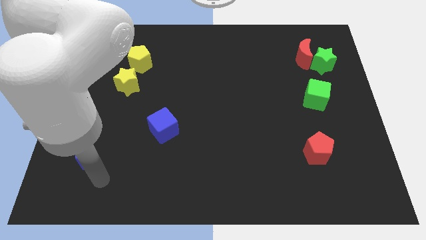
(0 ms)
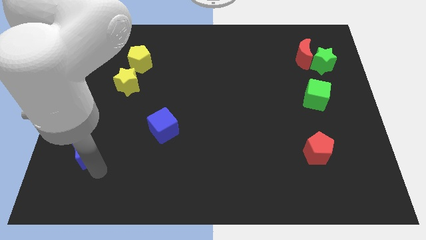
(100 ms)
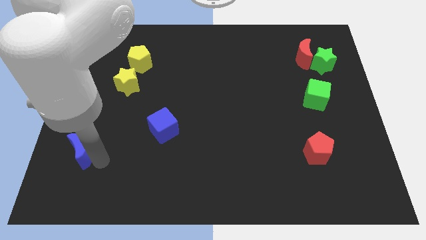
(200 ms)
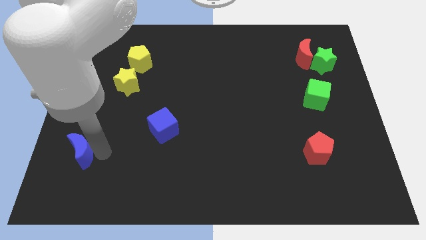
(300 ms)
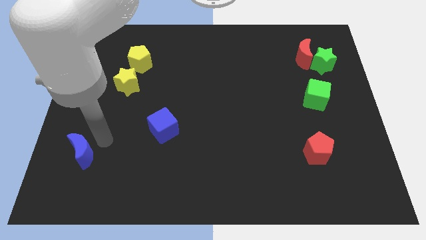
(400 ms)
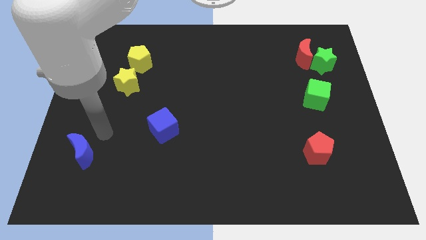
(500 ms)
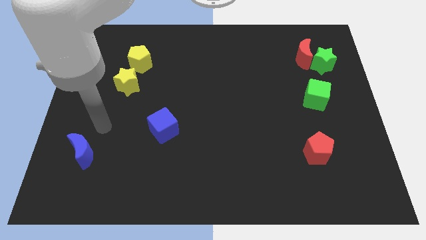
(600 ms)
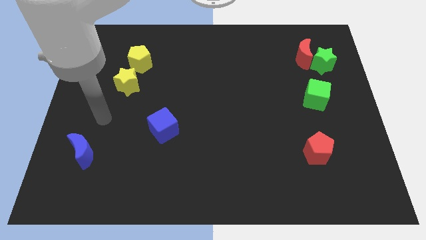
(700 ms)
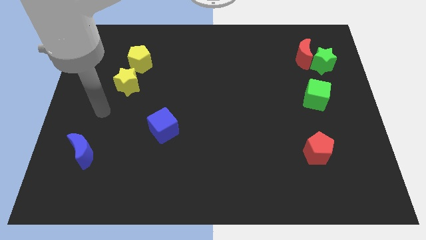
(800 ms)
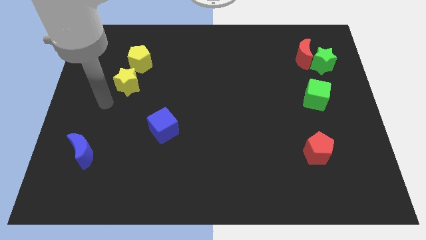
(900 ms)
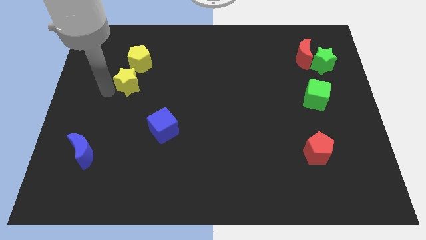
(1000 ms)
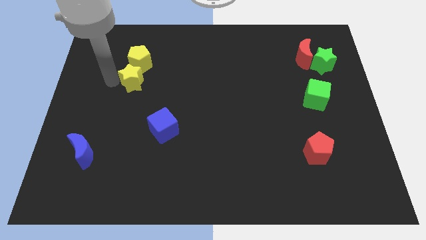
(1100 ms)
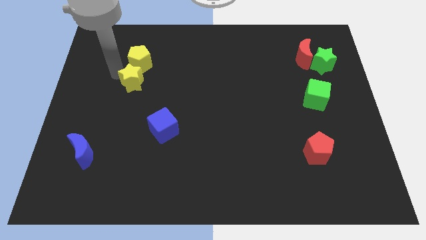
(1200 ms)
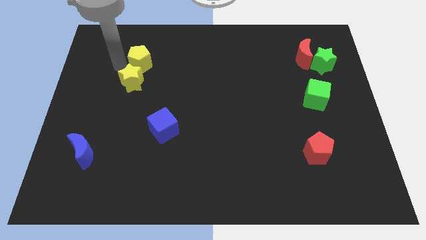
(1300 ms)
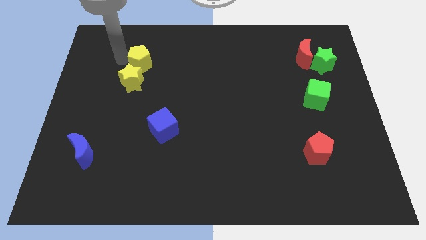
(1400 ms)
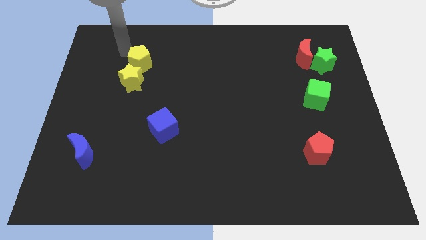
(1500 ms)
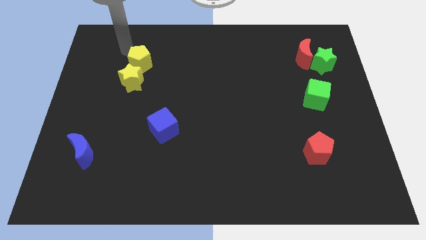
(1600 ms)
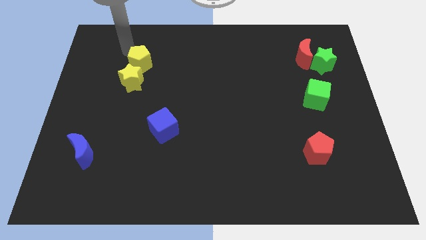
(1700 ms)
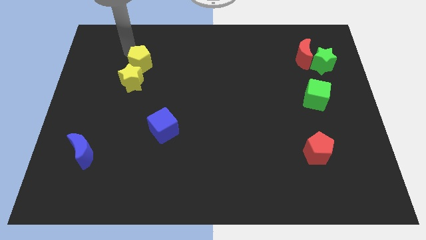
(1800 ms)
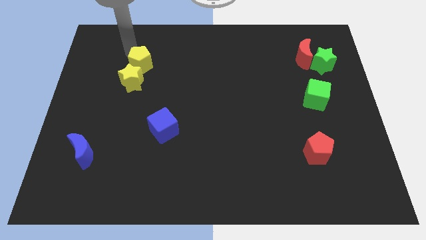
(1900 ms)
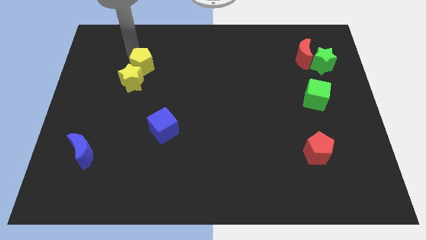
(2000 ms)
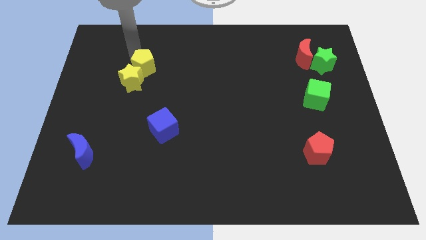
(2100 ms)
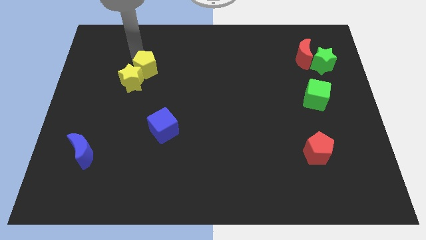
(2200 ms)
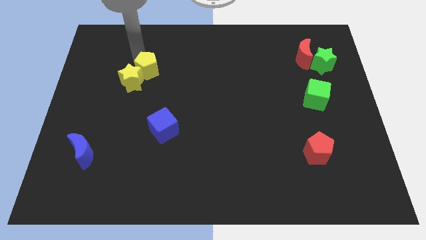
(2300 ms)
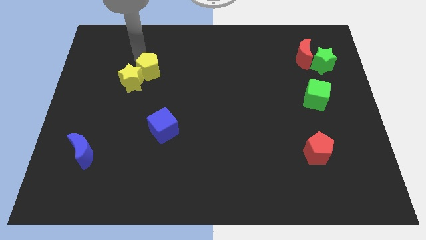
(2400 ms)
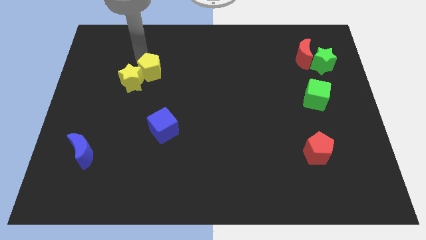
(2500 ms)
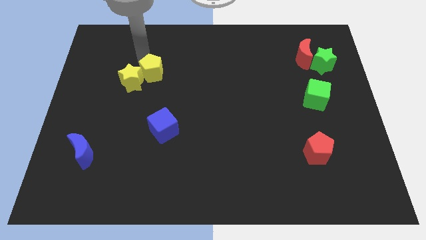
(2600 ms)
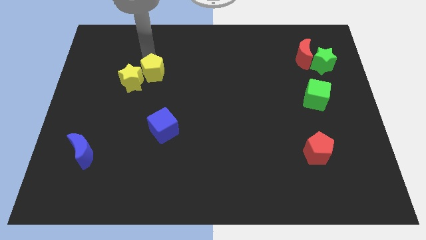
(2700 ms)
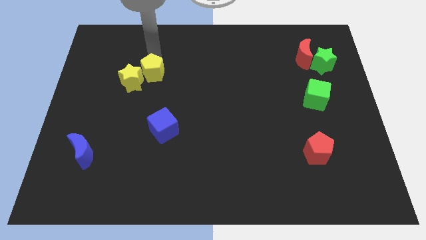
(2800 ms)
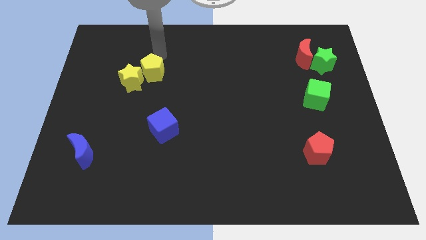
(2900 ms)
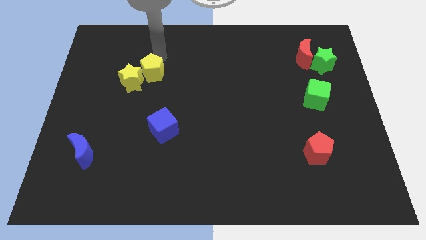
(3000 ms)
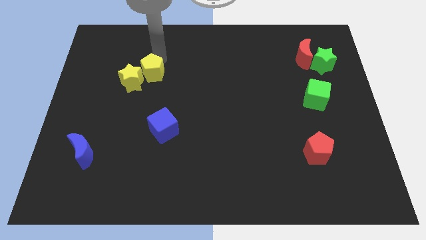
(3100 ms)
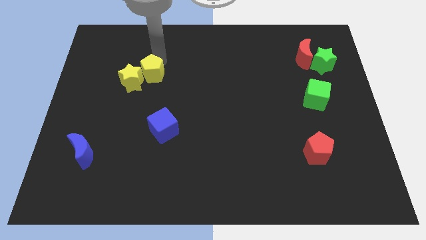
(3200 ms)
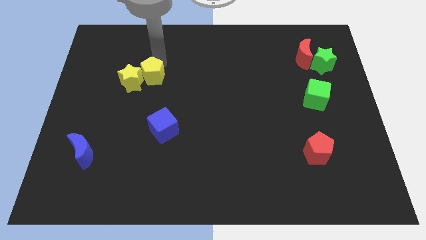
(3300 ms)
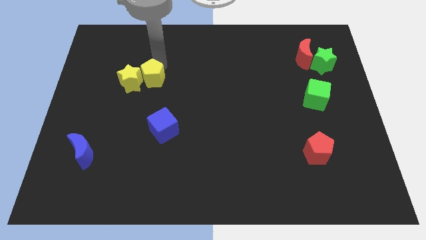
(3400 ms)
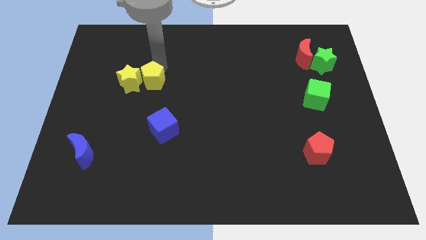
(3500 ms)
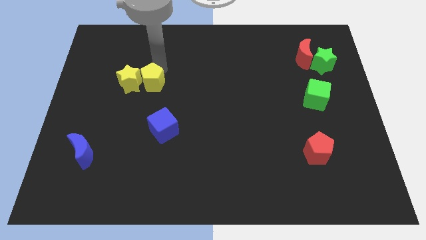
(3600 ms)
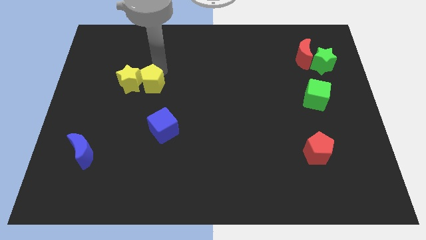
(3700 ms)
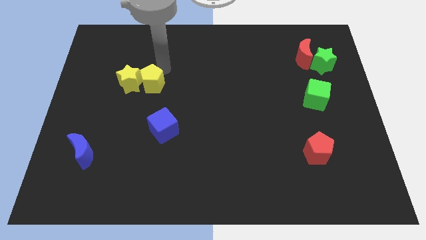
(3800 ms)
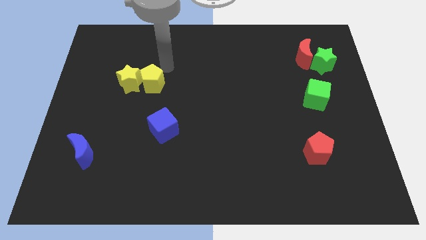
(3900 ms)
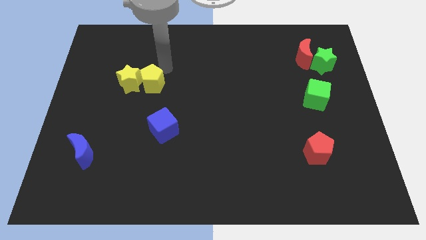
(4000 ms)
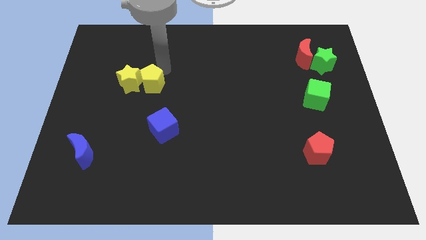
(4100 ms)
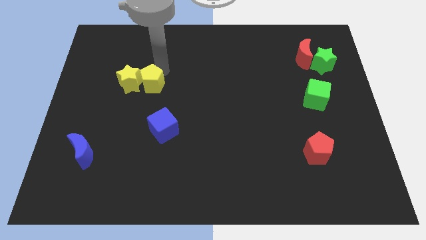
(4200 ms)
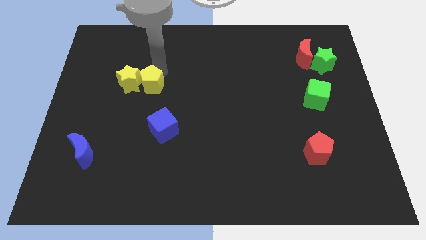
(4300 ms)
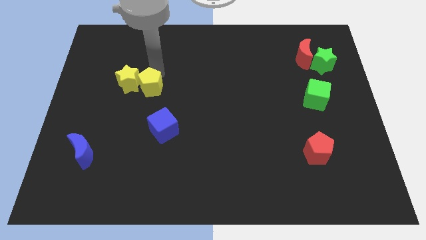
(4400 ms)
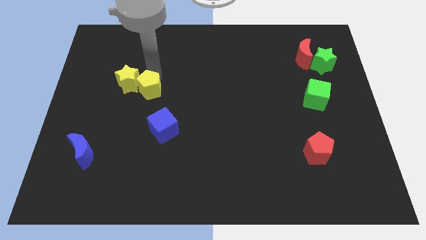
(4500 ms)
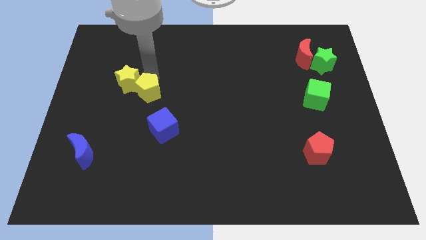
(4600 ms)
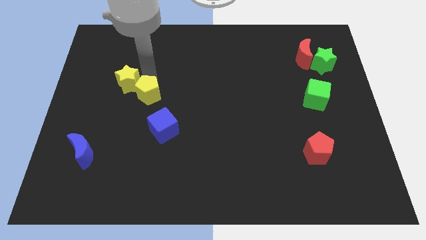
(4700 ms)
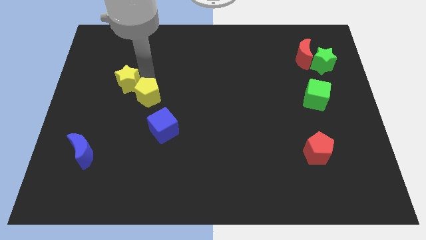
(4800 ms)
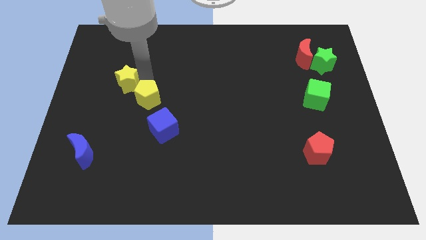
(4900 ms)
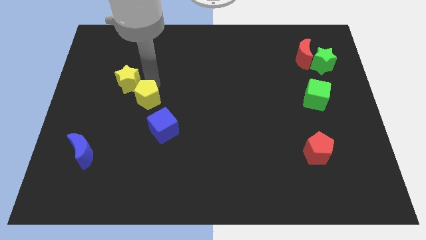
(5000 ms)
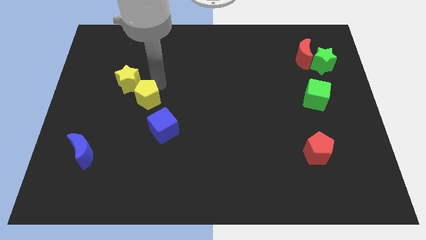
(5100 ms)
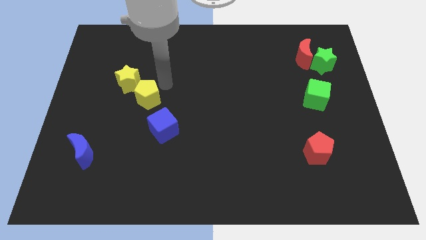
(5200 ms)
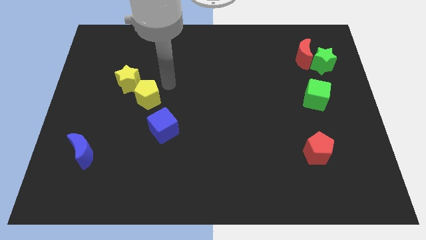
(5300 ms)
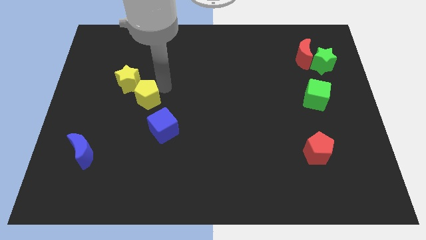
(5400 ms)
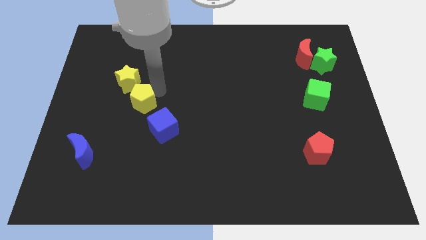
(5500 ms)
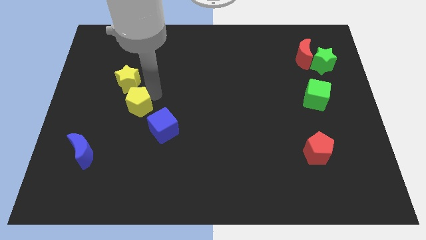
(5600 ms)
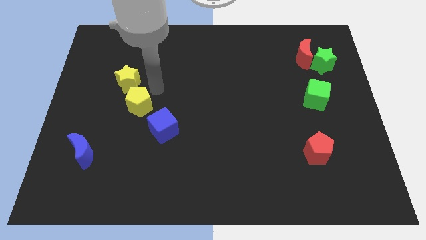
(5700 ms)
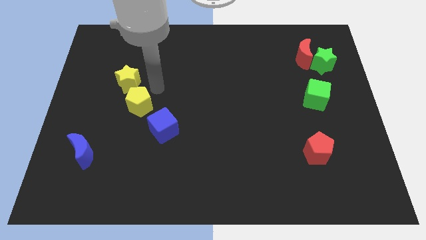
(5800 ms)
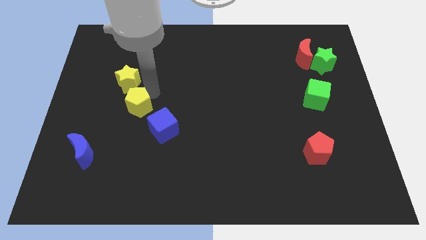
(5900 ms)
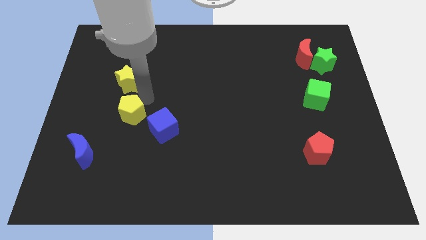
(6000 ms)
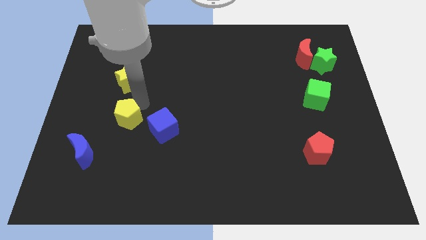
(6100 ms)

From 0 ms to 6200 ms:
push the yellow pentagon to the top right side of the blue moon

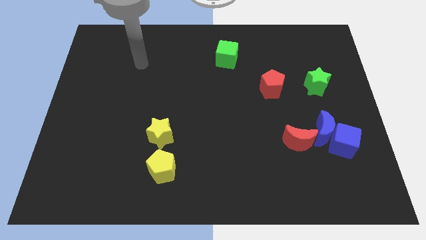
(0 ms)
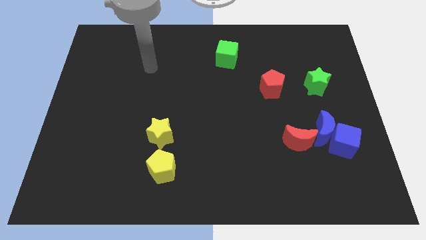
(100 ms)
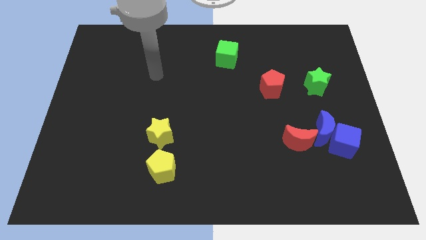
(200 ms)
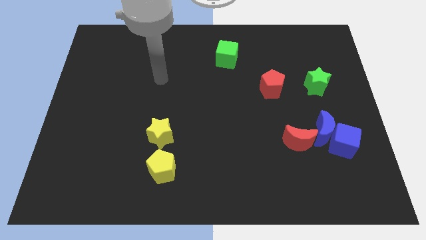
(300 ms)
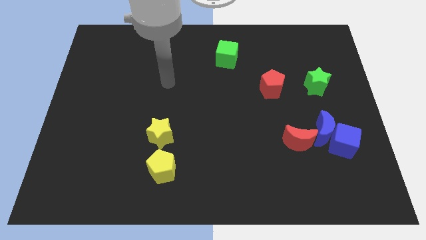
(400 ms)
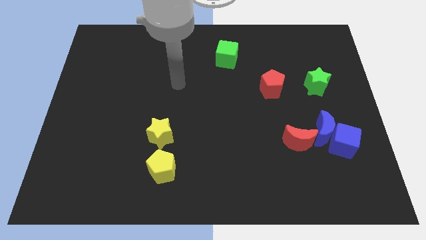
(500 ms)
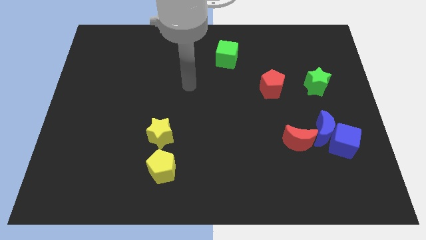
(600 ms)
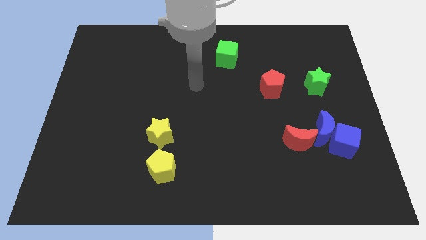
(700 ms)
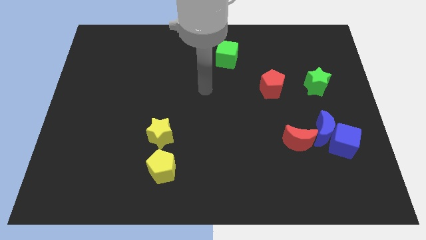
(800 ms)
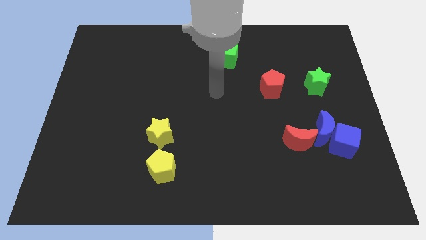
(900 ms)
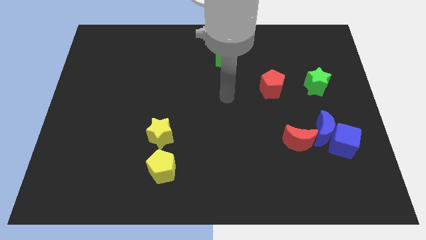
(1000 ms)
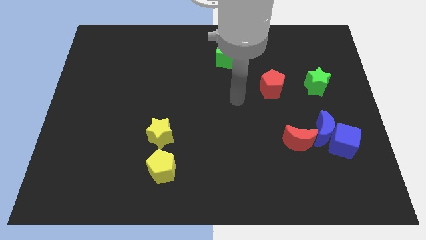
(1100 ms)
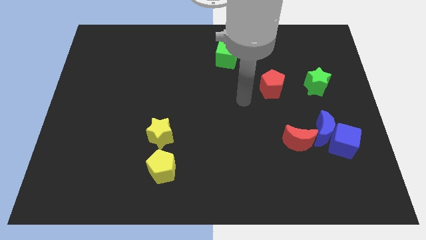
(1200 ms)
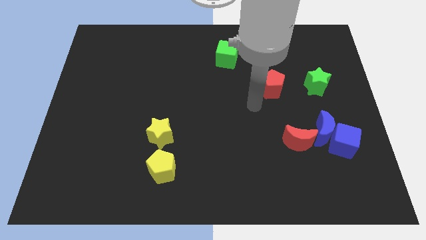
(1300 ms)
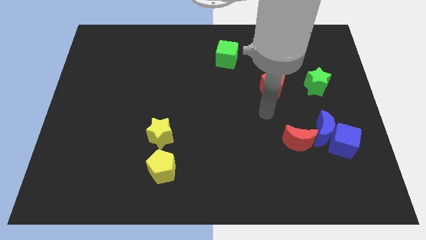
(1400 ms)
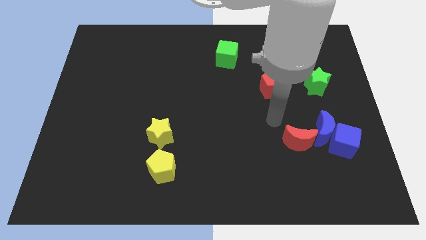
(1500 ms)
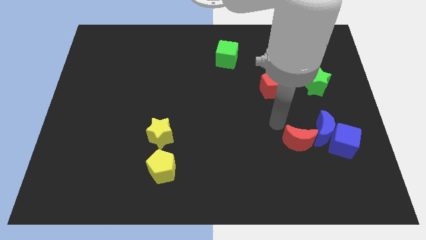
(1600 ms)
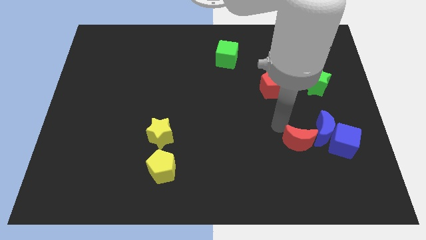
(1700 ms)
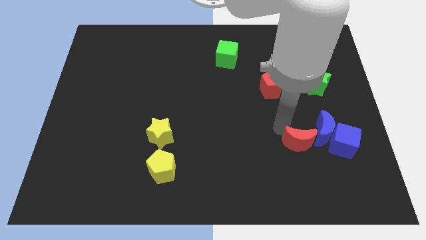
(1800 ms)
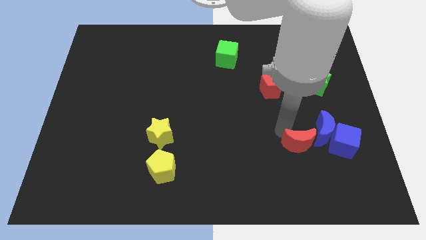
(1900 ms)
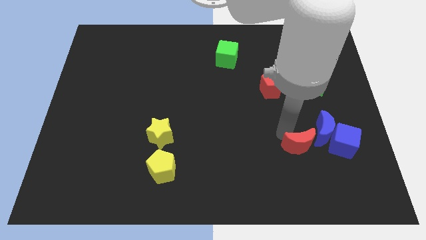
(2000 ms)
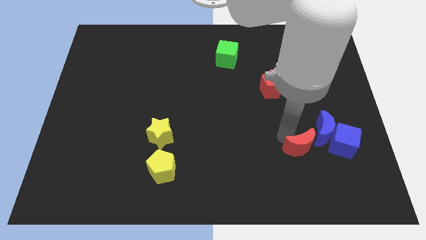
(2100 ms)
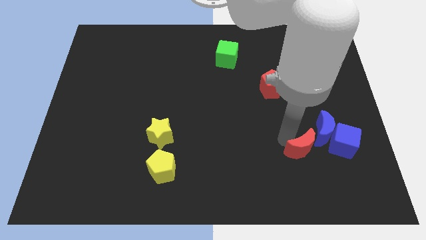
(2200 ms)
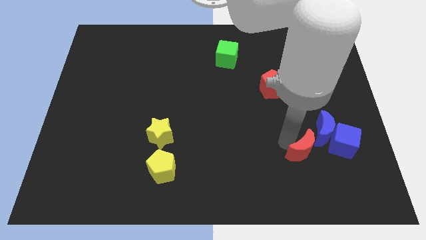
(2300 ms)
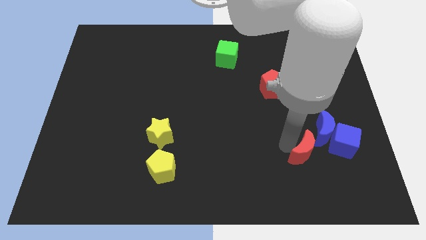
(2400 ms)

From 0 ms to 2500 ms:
slide the red moon to the bottom left of the blue cube
